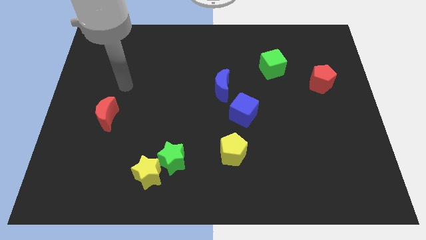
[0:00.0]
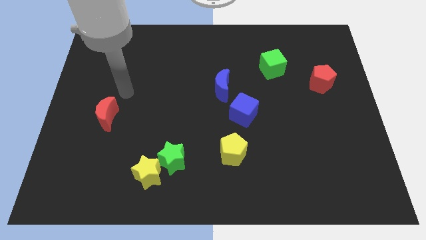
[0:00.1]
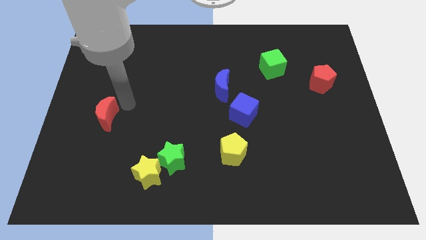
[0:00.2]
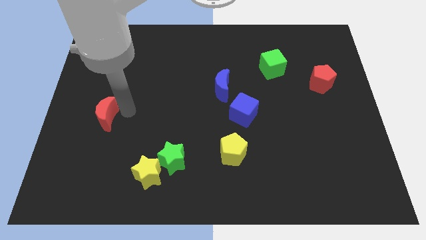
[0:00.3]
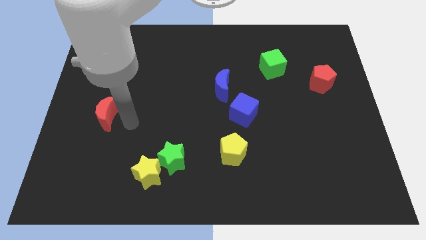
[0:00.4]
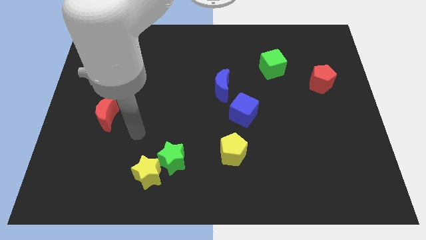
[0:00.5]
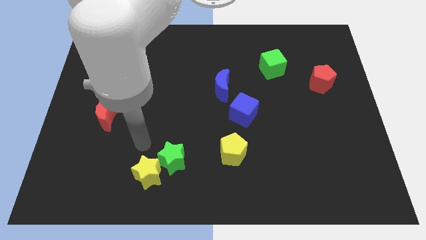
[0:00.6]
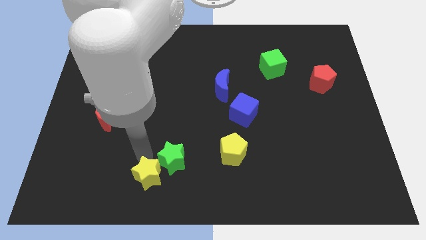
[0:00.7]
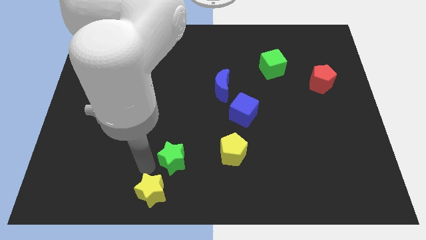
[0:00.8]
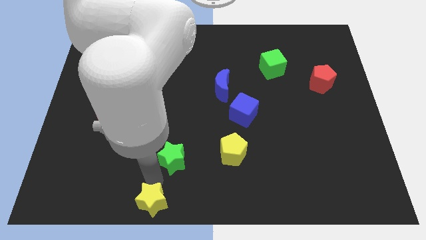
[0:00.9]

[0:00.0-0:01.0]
separate the green star from the yellow star

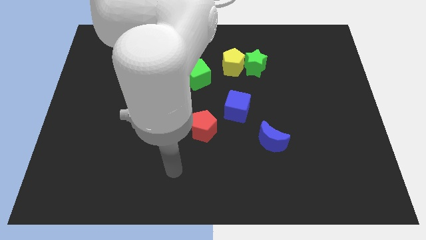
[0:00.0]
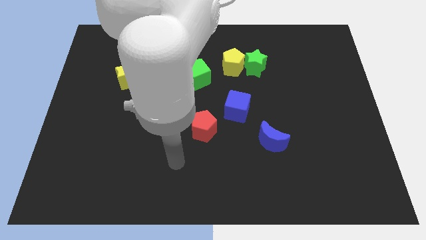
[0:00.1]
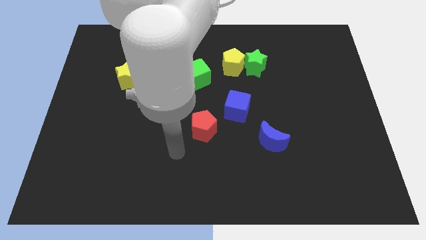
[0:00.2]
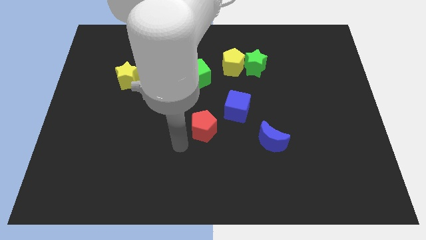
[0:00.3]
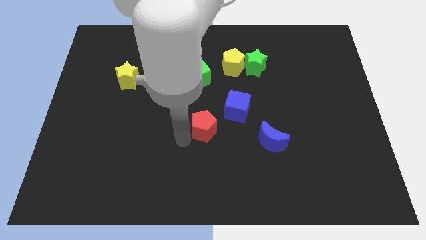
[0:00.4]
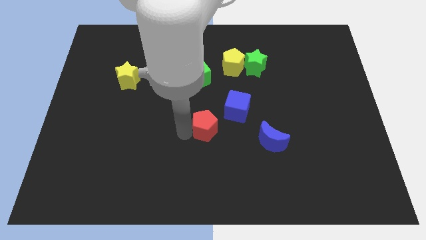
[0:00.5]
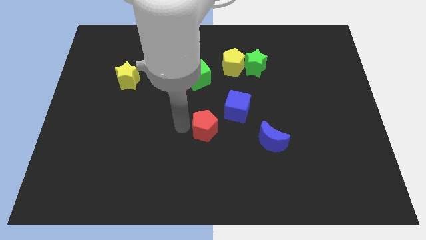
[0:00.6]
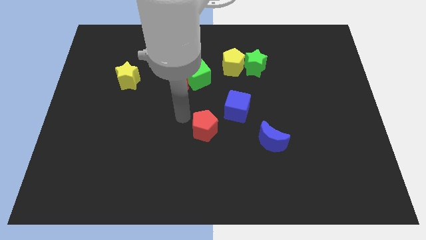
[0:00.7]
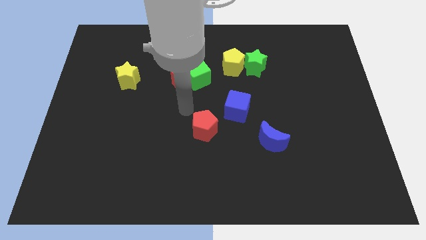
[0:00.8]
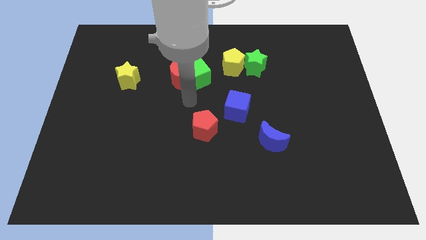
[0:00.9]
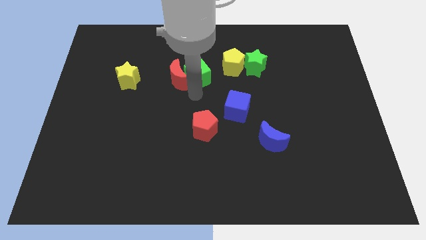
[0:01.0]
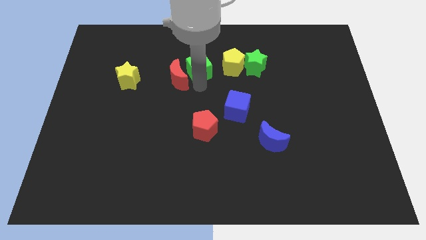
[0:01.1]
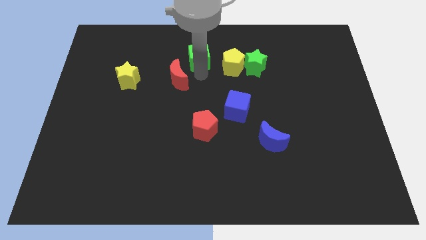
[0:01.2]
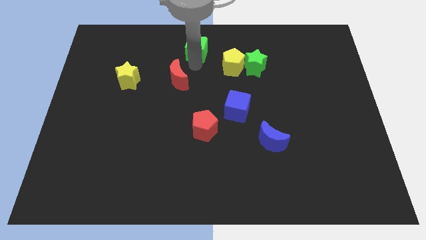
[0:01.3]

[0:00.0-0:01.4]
move the red moon away from the green cube

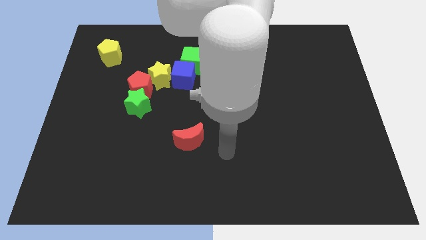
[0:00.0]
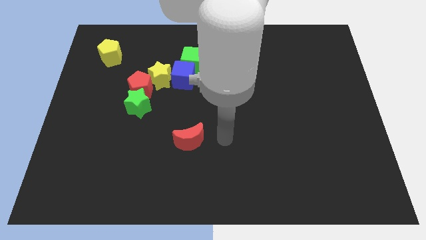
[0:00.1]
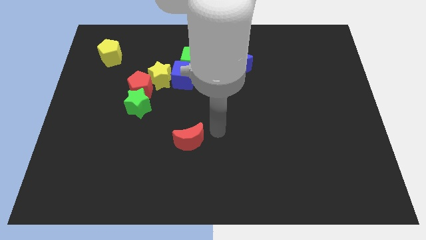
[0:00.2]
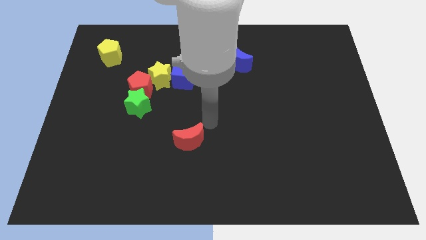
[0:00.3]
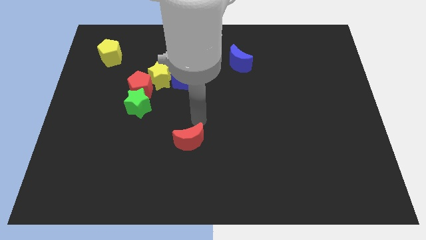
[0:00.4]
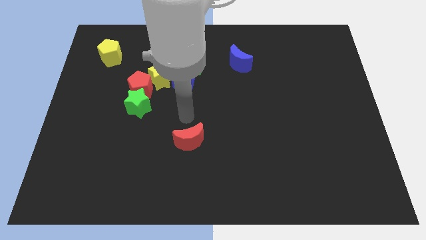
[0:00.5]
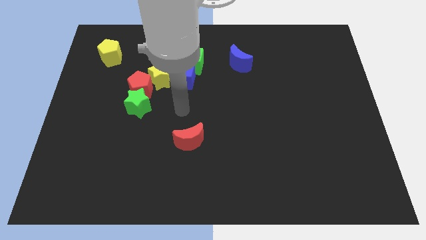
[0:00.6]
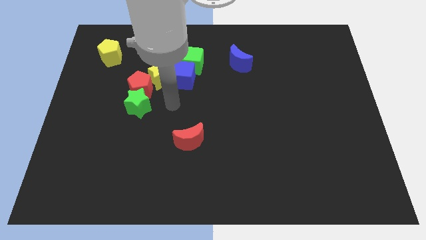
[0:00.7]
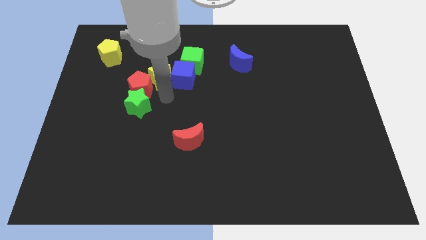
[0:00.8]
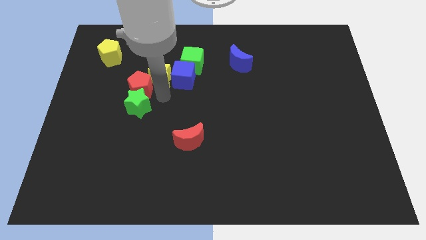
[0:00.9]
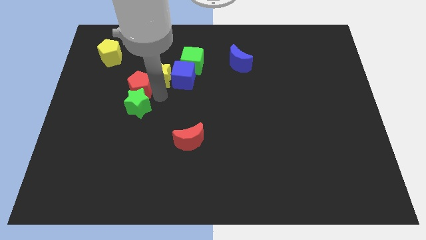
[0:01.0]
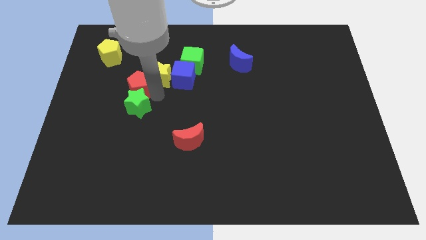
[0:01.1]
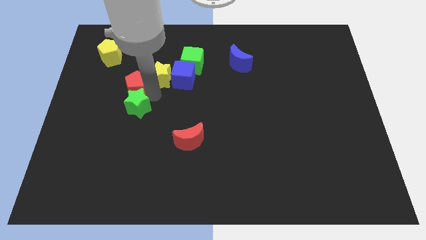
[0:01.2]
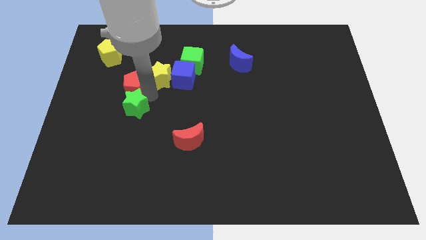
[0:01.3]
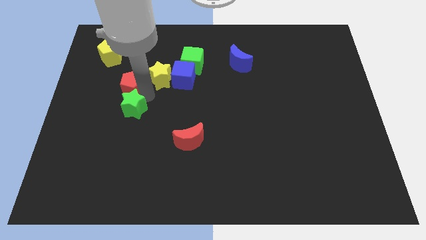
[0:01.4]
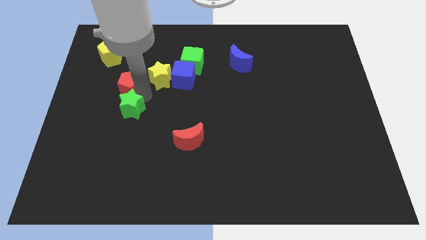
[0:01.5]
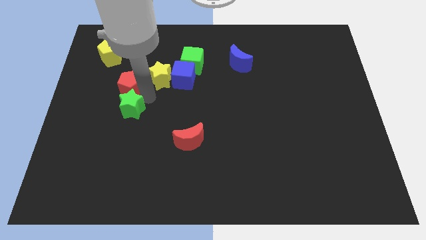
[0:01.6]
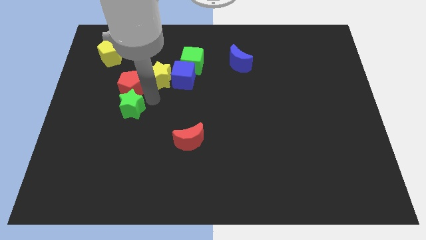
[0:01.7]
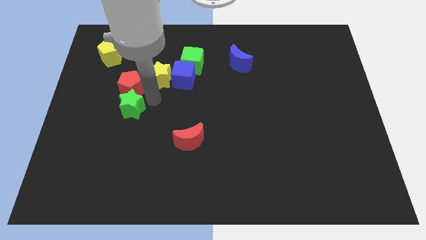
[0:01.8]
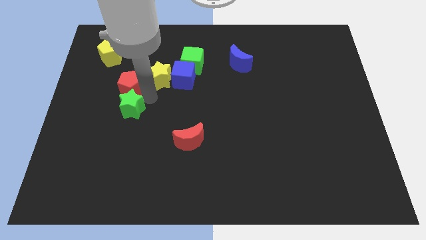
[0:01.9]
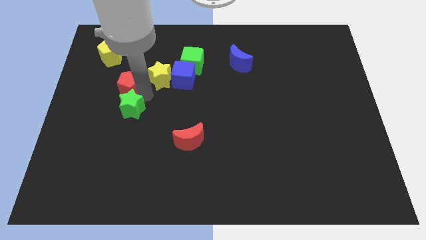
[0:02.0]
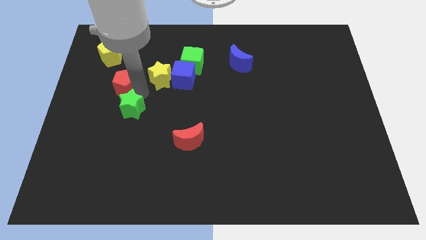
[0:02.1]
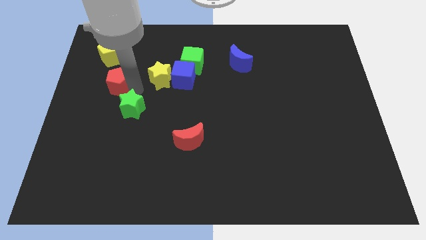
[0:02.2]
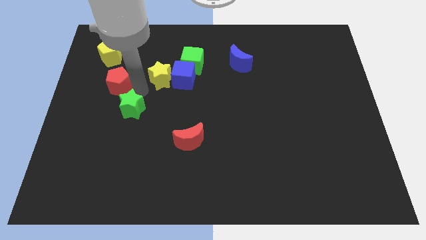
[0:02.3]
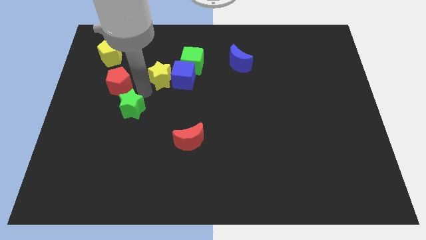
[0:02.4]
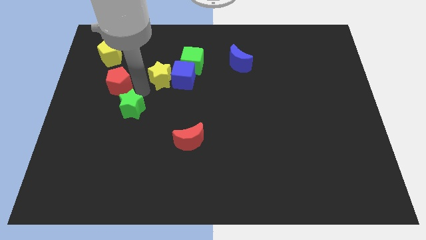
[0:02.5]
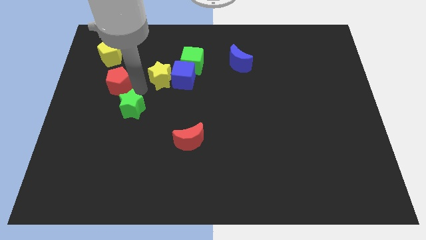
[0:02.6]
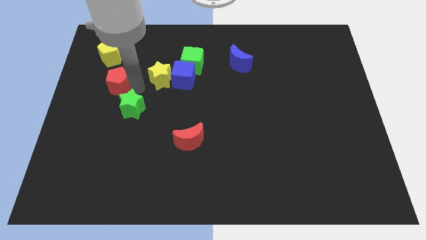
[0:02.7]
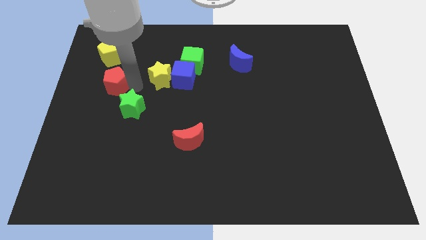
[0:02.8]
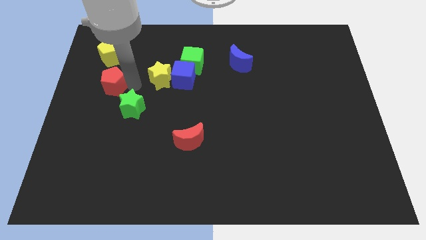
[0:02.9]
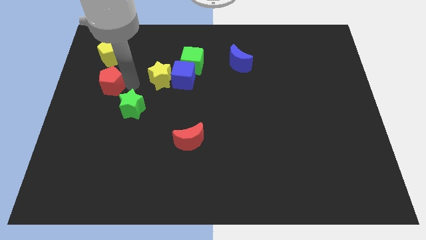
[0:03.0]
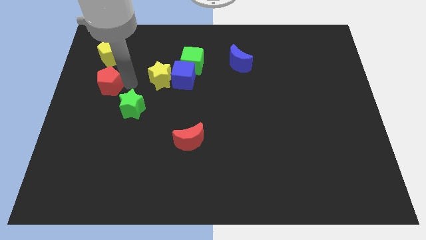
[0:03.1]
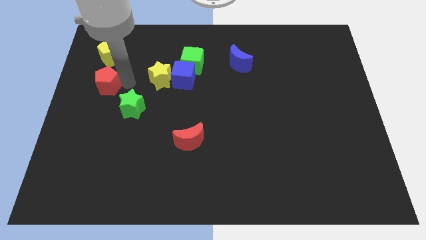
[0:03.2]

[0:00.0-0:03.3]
pull the red pentagon apart from the green star and yellow star

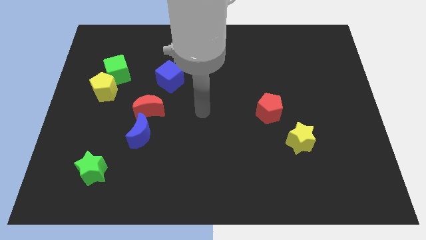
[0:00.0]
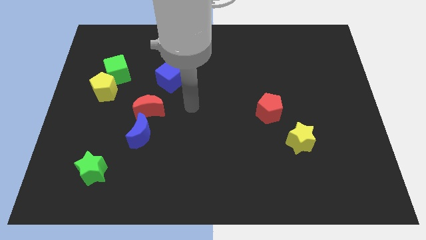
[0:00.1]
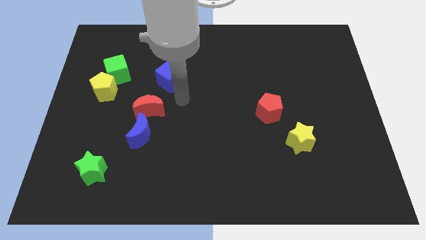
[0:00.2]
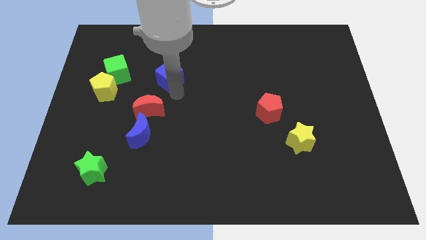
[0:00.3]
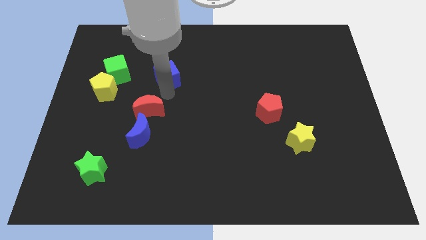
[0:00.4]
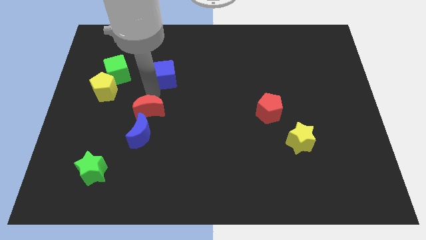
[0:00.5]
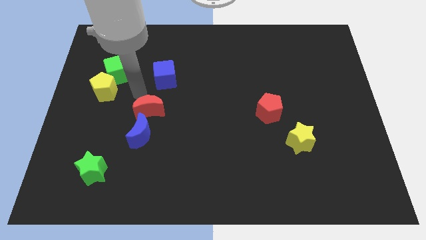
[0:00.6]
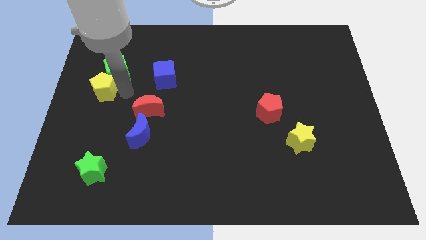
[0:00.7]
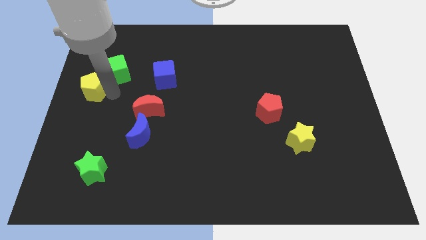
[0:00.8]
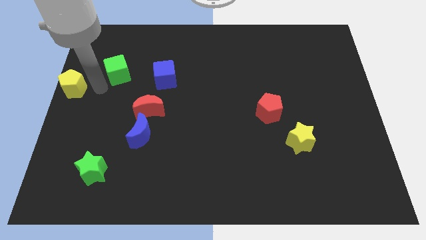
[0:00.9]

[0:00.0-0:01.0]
pull the green cube apart from the yellow pentagon

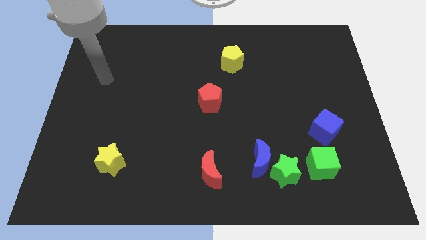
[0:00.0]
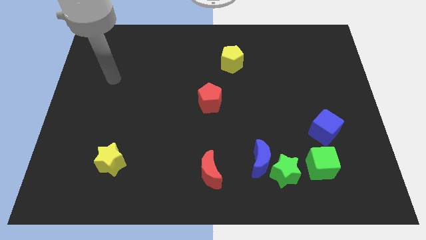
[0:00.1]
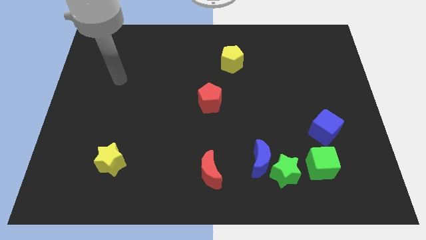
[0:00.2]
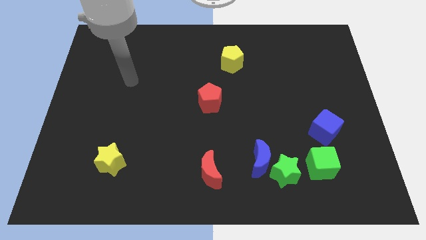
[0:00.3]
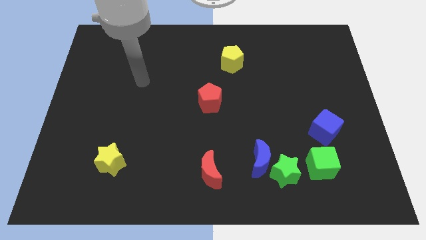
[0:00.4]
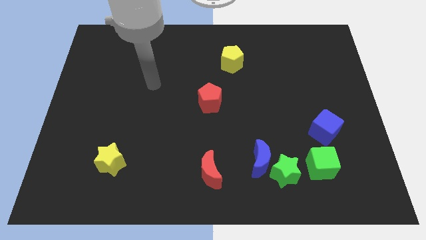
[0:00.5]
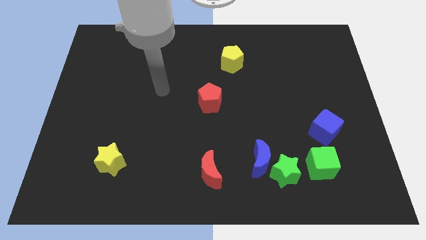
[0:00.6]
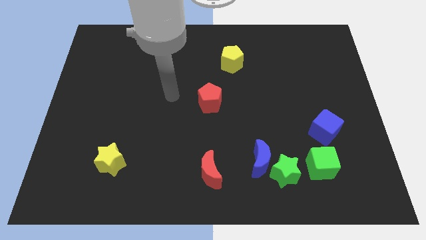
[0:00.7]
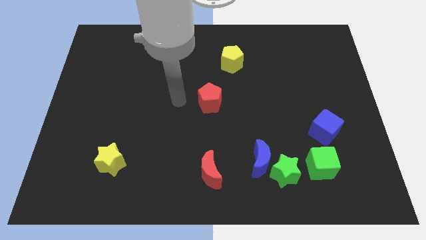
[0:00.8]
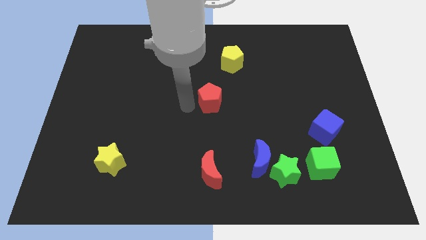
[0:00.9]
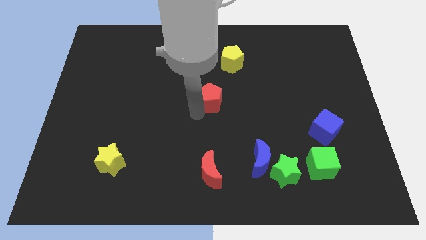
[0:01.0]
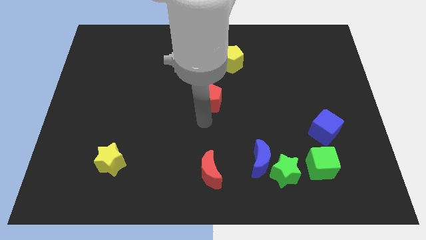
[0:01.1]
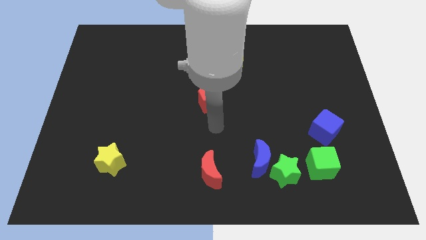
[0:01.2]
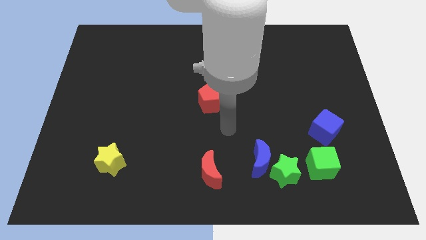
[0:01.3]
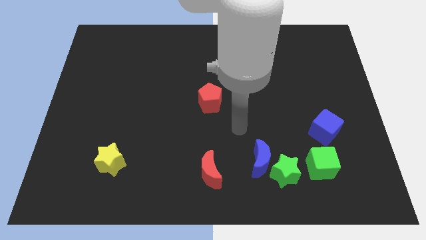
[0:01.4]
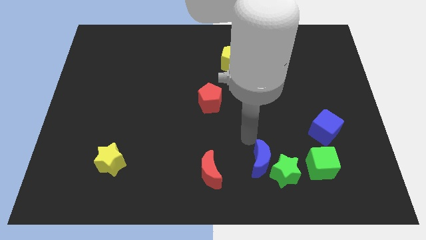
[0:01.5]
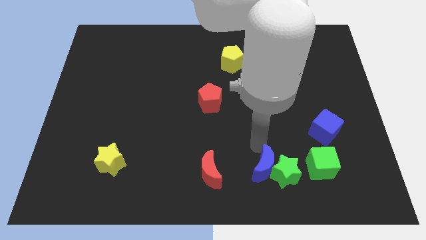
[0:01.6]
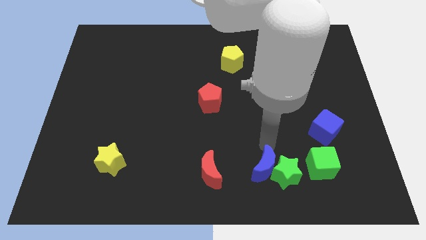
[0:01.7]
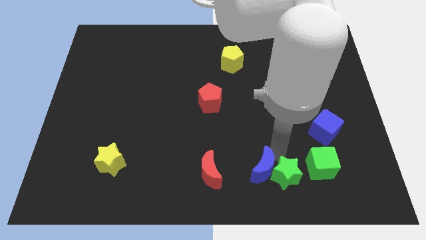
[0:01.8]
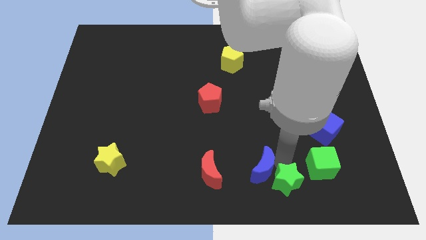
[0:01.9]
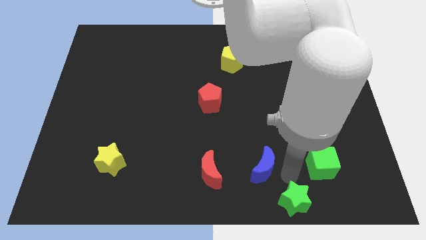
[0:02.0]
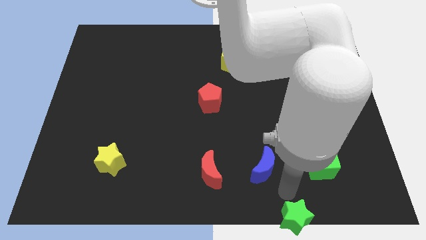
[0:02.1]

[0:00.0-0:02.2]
separate the blue moon from the green star

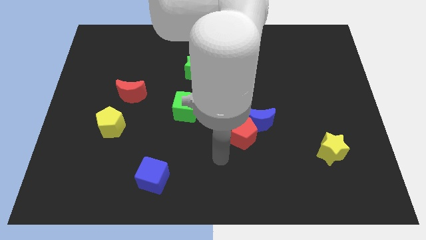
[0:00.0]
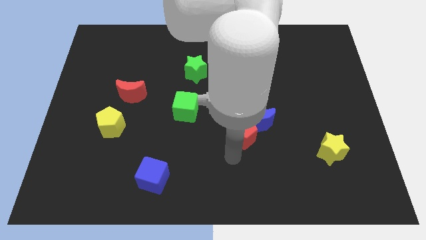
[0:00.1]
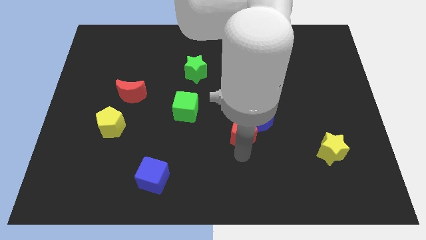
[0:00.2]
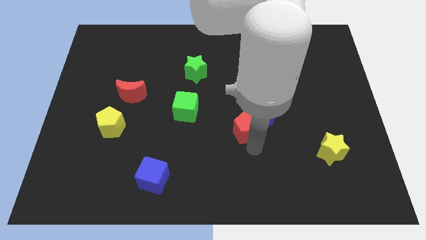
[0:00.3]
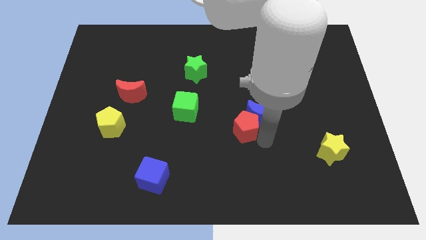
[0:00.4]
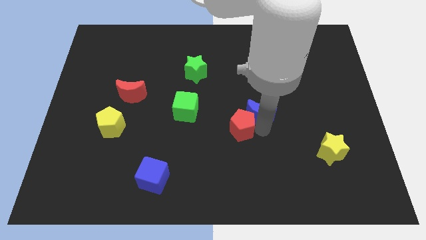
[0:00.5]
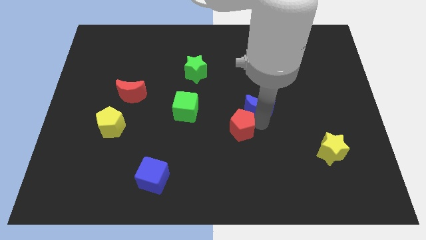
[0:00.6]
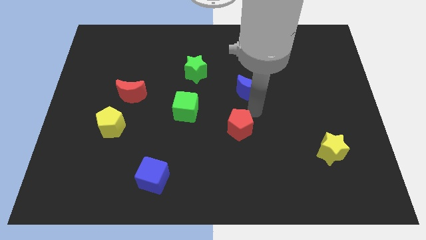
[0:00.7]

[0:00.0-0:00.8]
move the red pentagon away from the blue moon
